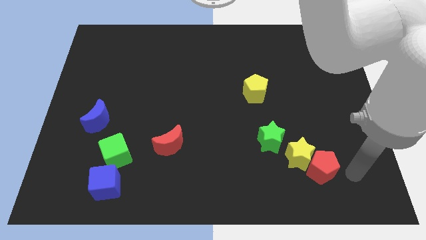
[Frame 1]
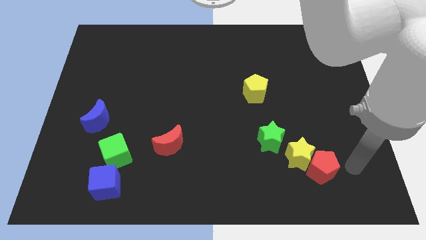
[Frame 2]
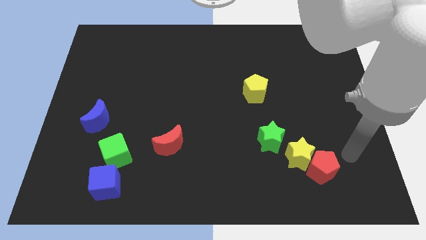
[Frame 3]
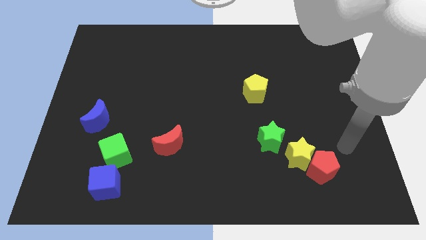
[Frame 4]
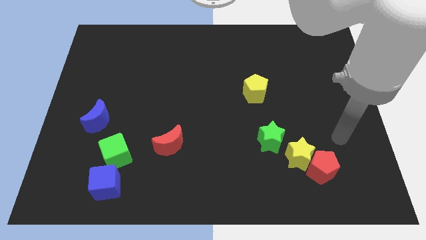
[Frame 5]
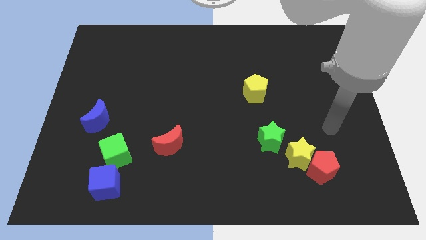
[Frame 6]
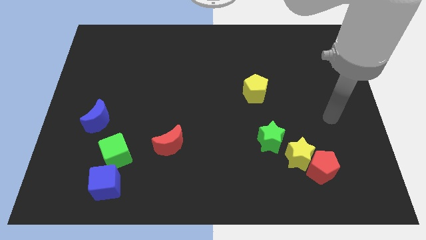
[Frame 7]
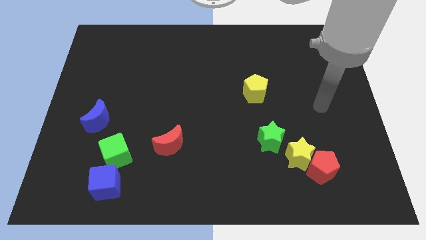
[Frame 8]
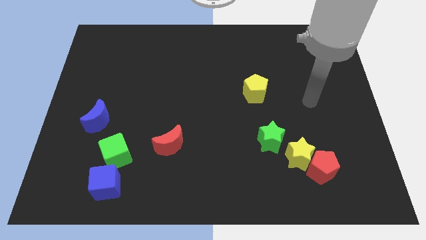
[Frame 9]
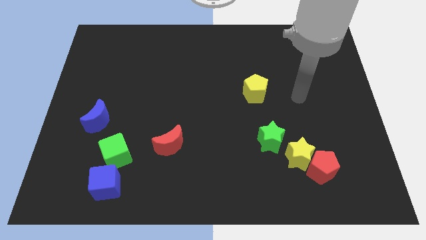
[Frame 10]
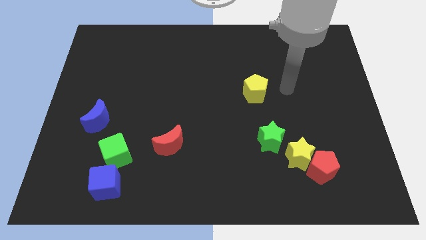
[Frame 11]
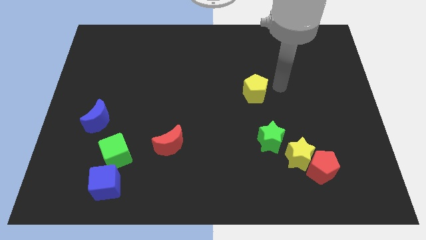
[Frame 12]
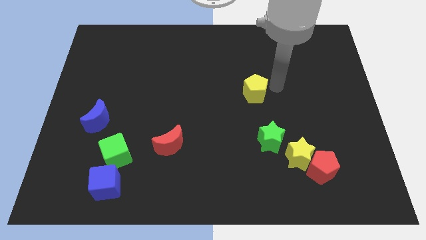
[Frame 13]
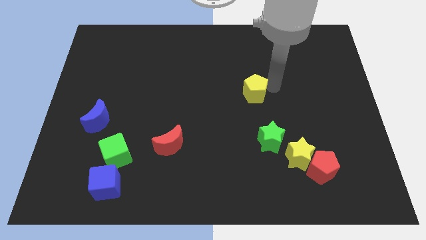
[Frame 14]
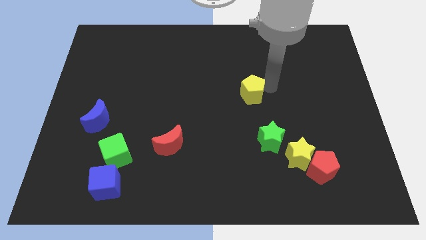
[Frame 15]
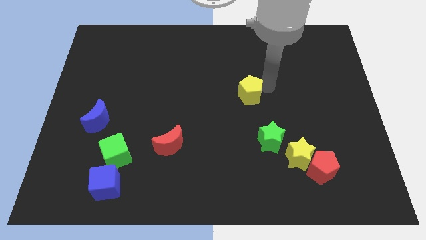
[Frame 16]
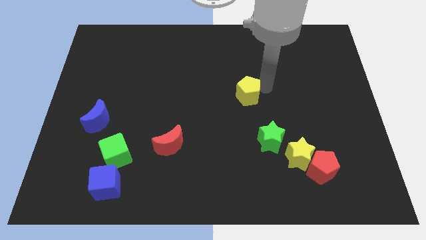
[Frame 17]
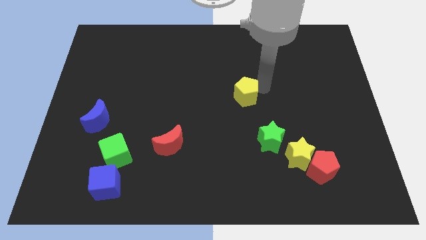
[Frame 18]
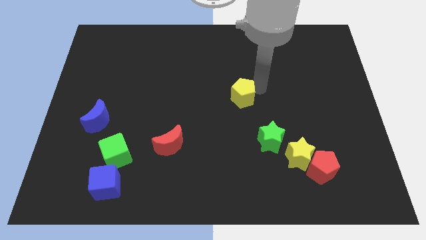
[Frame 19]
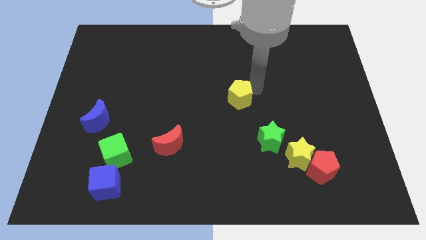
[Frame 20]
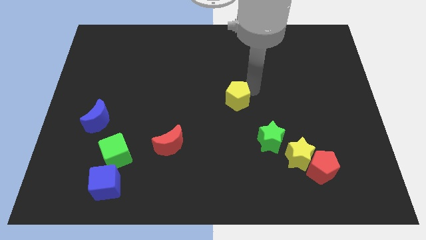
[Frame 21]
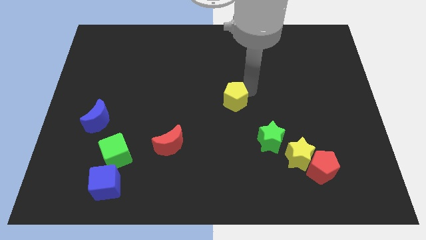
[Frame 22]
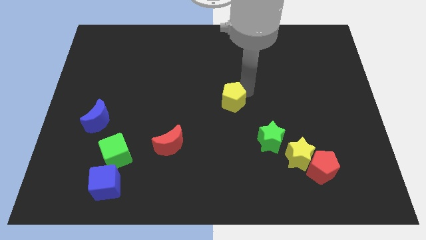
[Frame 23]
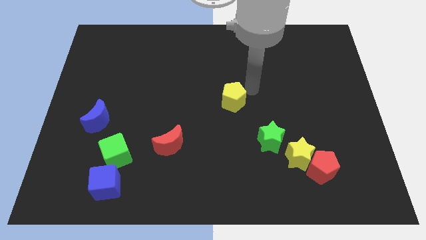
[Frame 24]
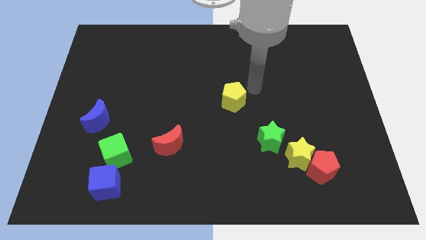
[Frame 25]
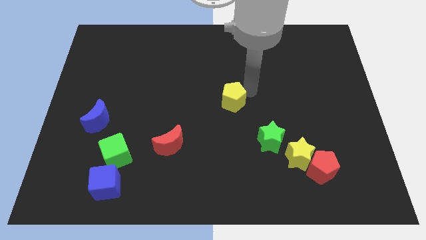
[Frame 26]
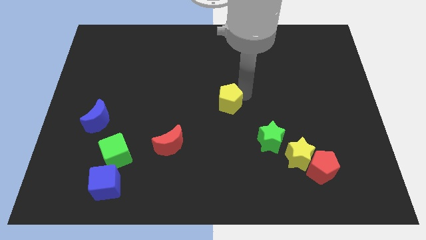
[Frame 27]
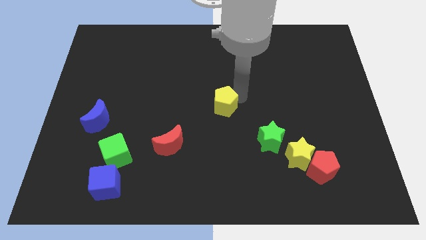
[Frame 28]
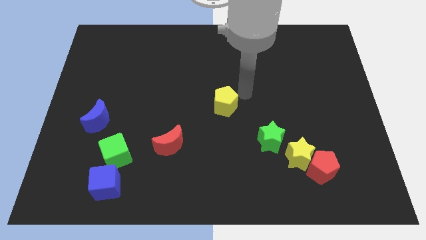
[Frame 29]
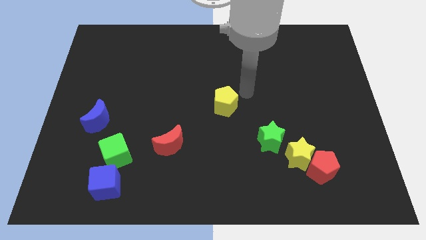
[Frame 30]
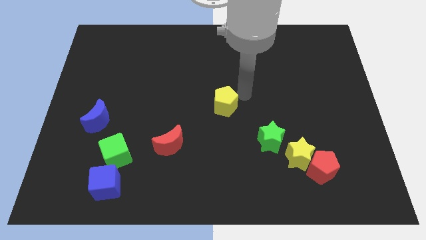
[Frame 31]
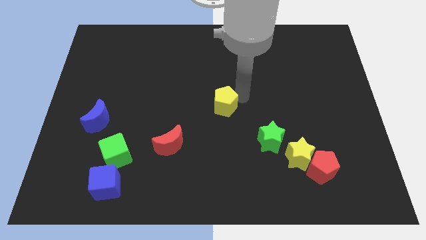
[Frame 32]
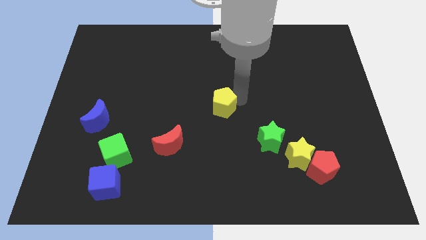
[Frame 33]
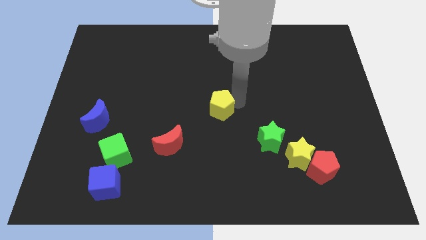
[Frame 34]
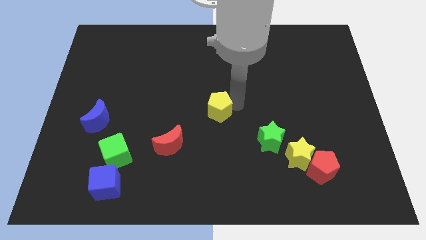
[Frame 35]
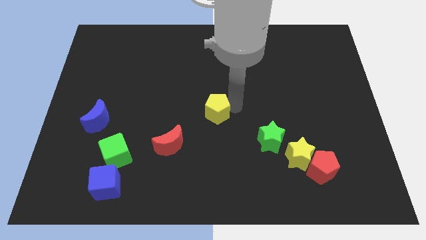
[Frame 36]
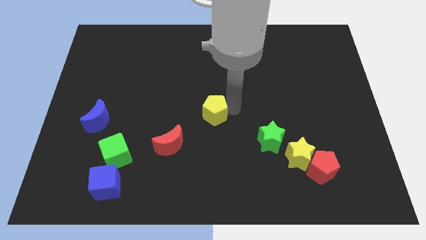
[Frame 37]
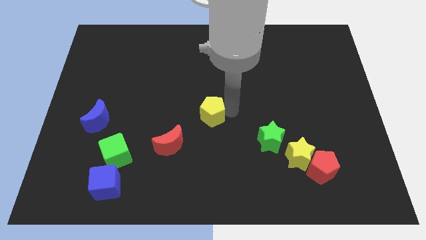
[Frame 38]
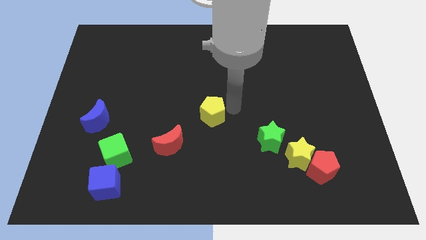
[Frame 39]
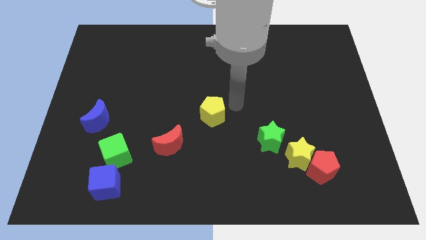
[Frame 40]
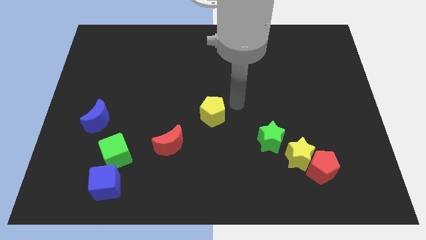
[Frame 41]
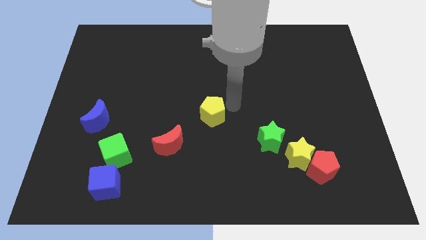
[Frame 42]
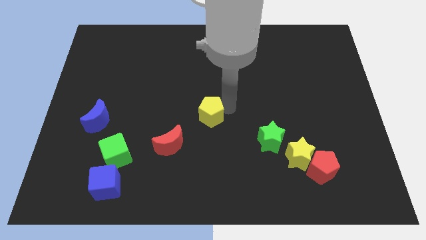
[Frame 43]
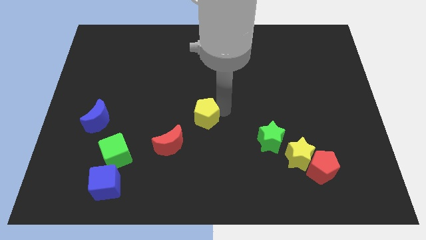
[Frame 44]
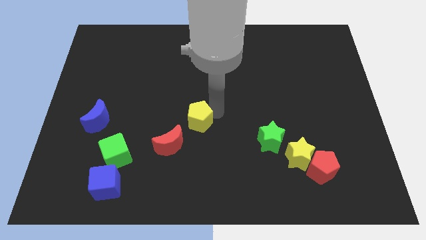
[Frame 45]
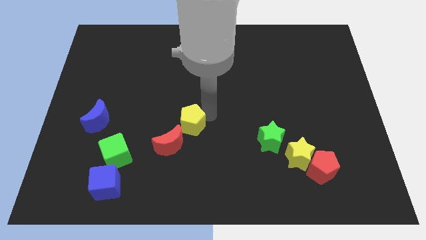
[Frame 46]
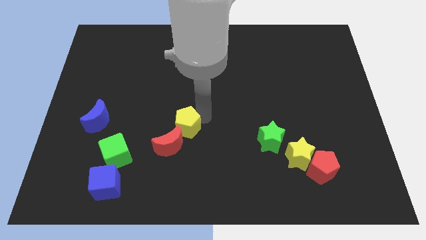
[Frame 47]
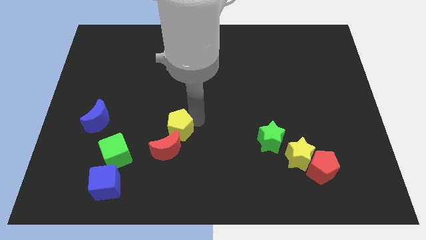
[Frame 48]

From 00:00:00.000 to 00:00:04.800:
move the yellow pentagon next to the red moon

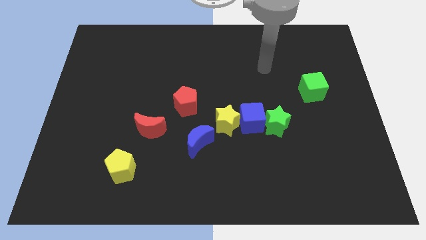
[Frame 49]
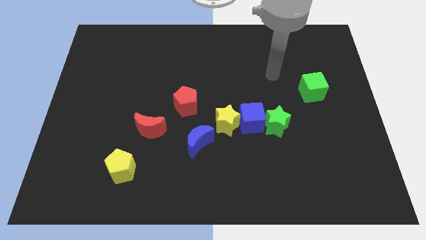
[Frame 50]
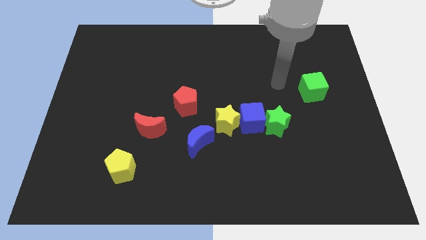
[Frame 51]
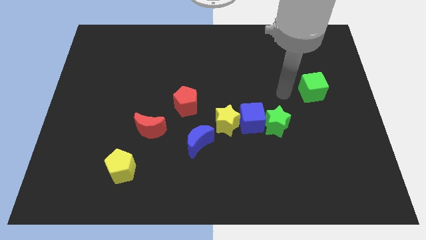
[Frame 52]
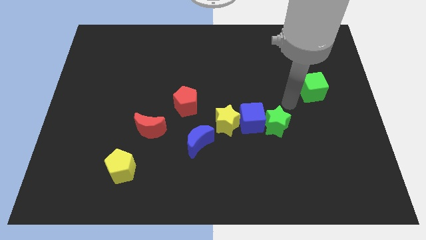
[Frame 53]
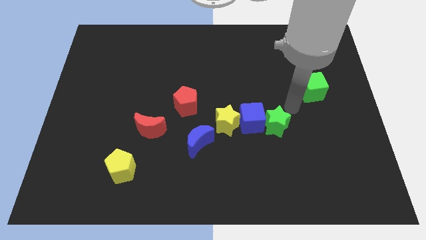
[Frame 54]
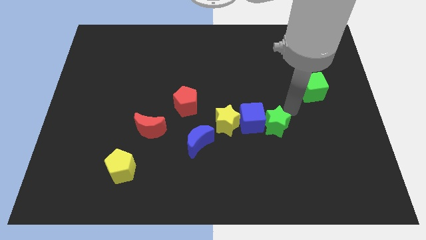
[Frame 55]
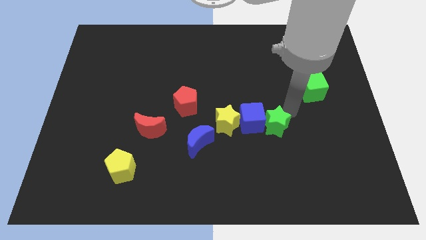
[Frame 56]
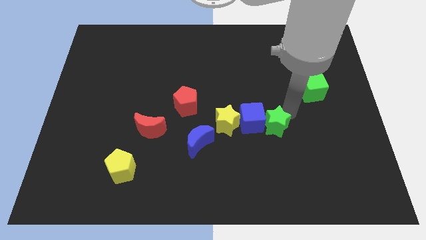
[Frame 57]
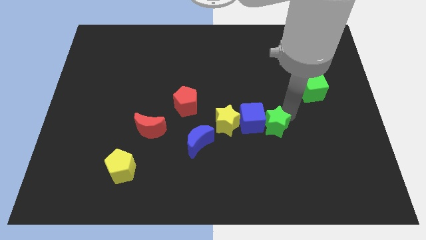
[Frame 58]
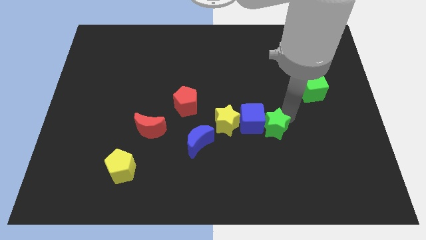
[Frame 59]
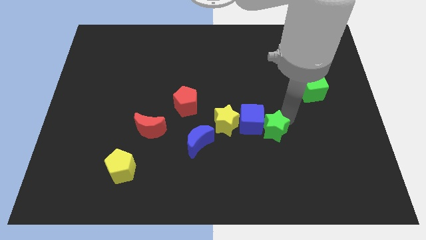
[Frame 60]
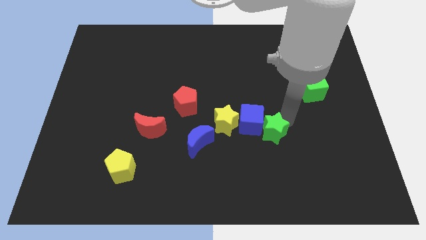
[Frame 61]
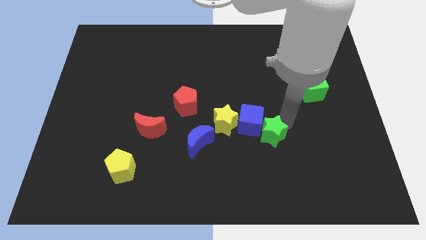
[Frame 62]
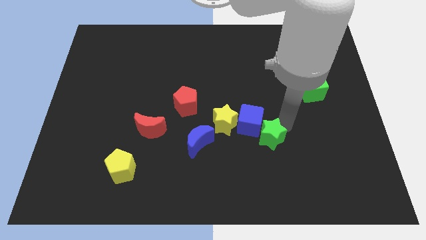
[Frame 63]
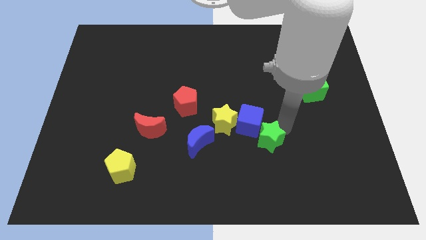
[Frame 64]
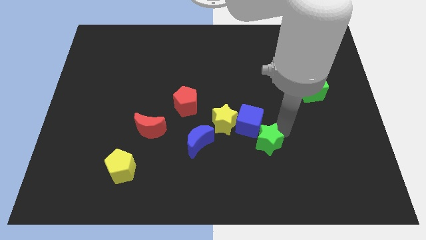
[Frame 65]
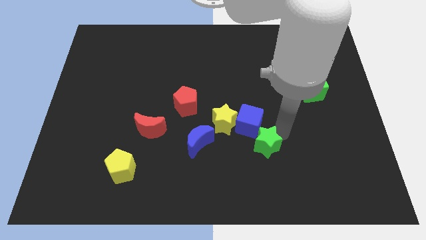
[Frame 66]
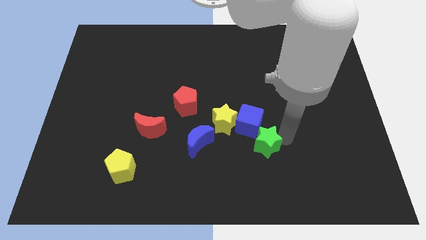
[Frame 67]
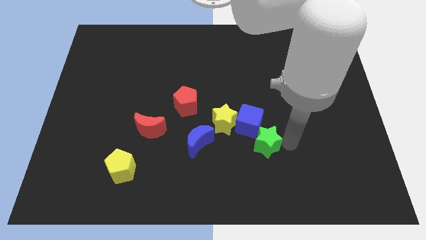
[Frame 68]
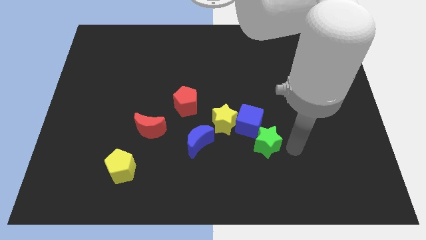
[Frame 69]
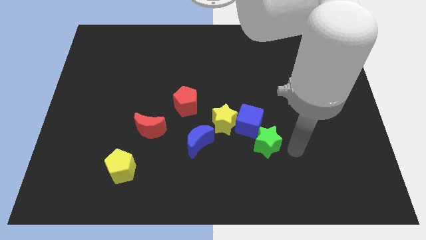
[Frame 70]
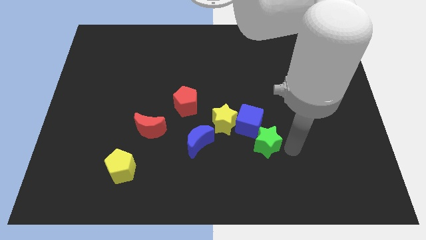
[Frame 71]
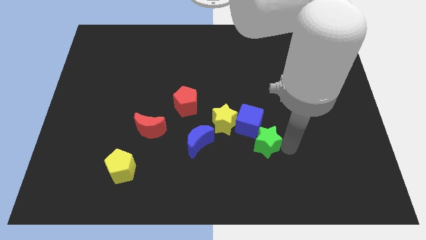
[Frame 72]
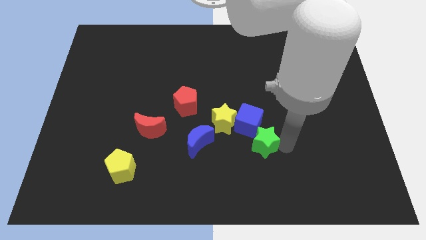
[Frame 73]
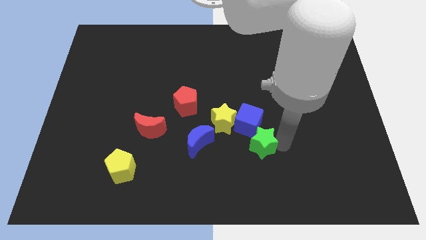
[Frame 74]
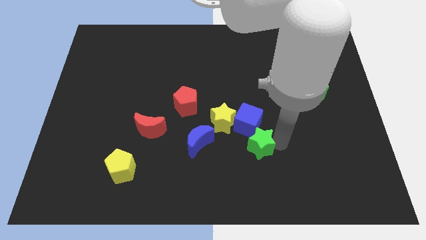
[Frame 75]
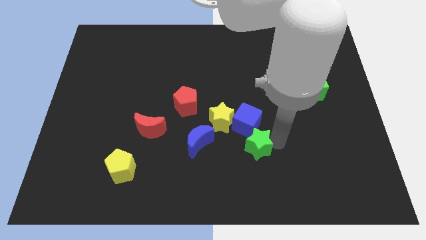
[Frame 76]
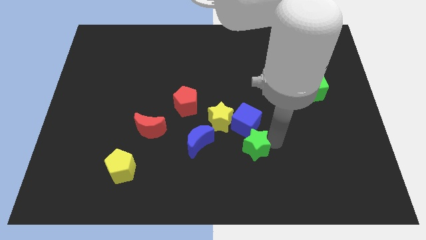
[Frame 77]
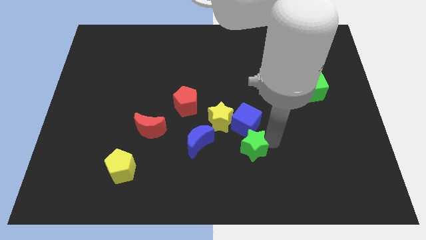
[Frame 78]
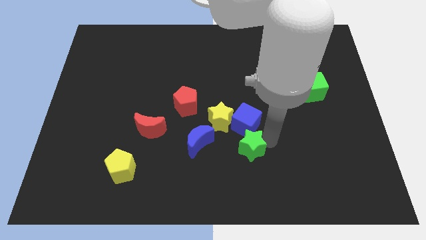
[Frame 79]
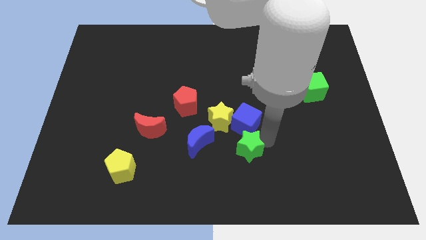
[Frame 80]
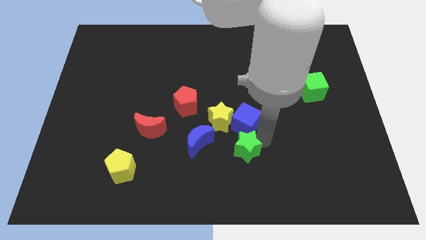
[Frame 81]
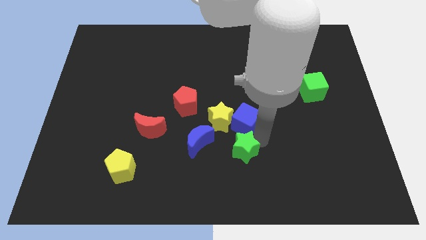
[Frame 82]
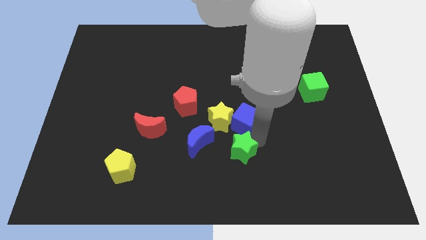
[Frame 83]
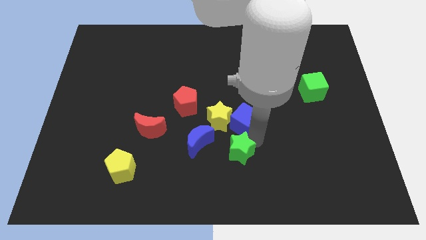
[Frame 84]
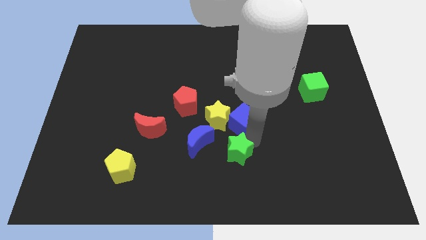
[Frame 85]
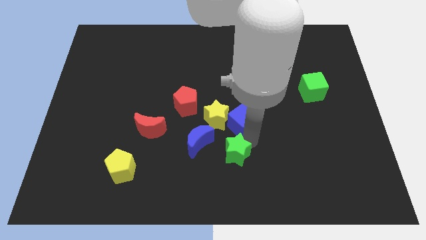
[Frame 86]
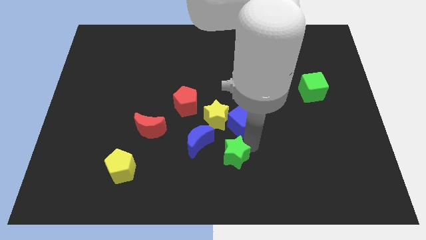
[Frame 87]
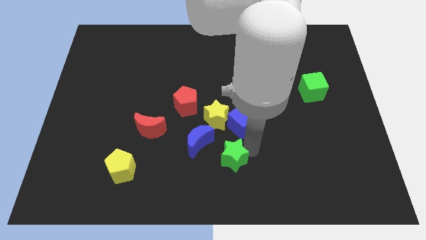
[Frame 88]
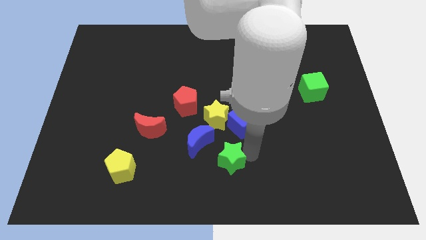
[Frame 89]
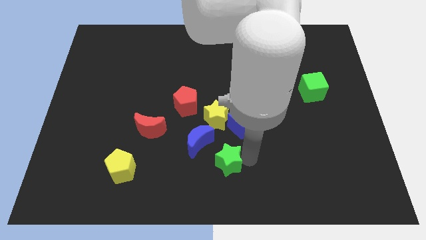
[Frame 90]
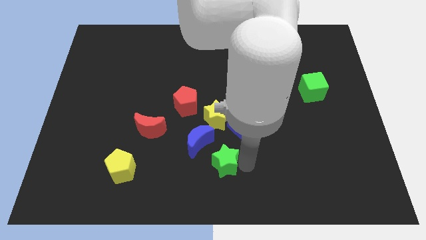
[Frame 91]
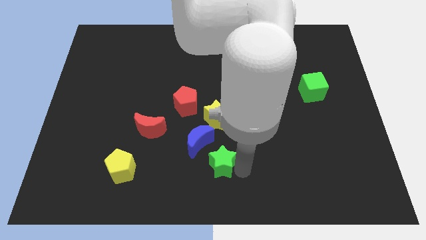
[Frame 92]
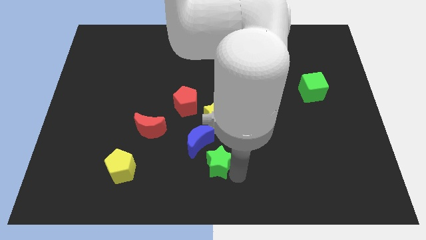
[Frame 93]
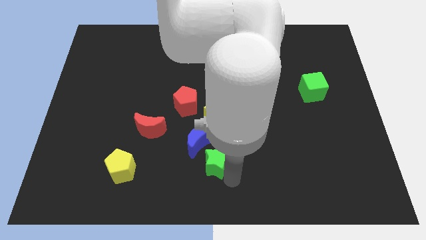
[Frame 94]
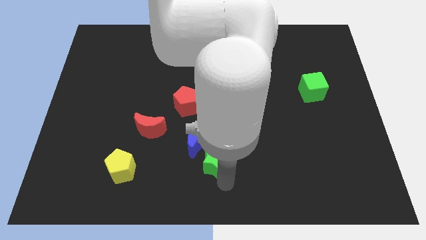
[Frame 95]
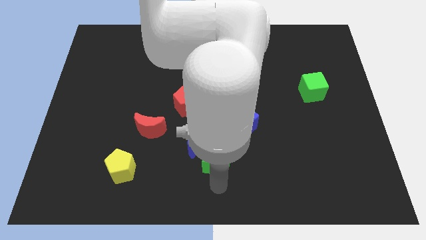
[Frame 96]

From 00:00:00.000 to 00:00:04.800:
push the green star next to the blue moon
